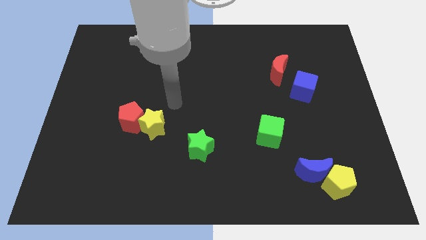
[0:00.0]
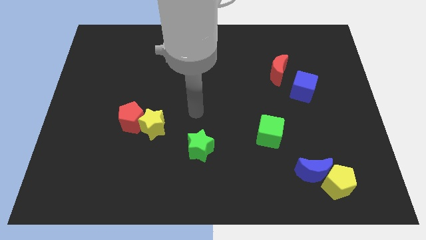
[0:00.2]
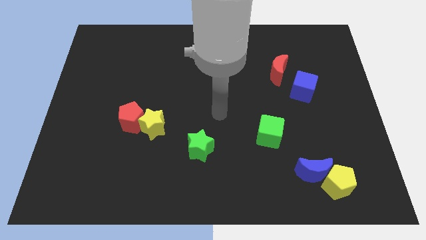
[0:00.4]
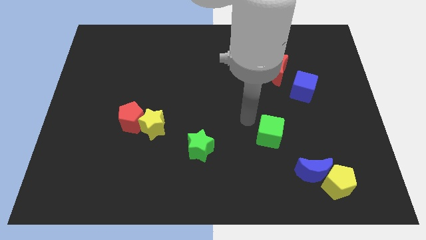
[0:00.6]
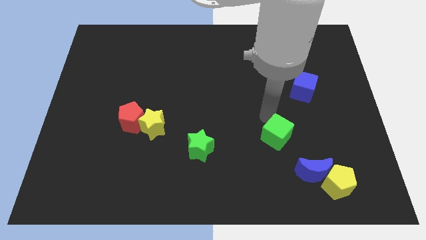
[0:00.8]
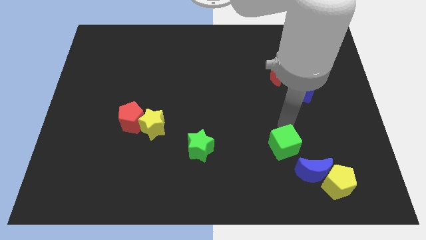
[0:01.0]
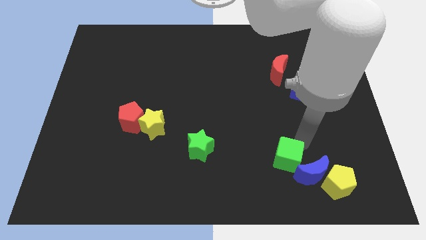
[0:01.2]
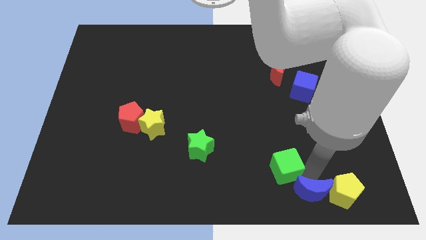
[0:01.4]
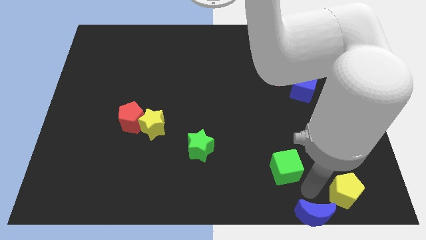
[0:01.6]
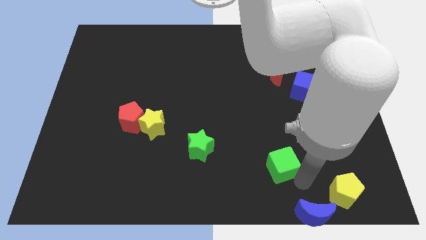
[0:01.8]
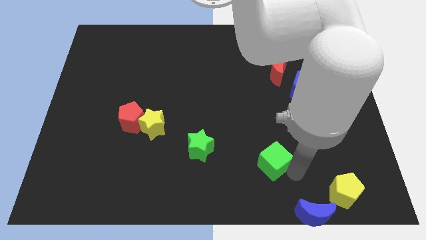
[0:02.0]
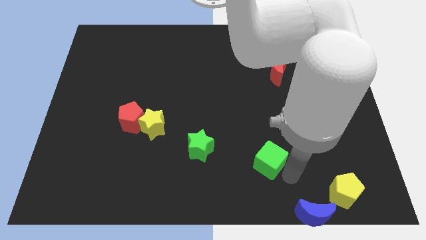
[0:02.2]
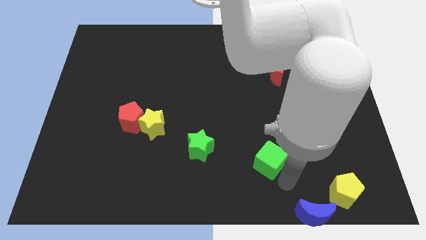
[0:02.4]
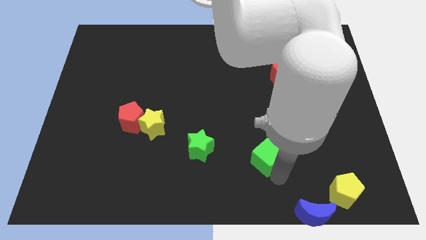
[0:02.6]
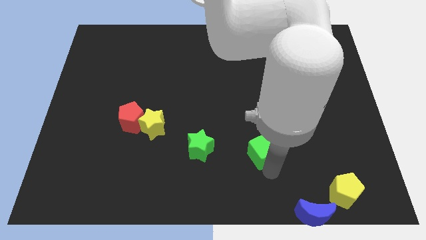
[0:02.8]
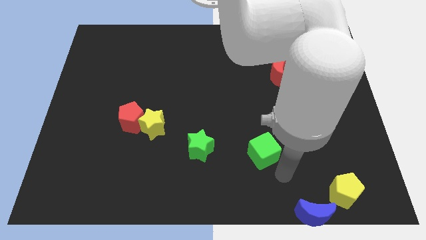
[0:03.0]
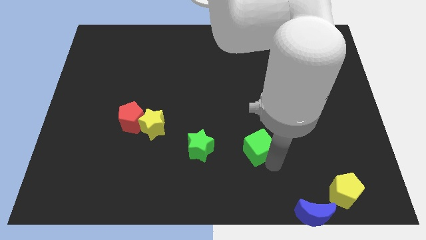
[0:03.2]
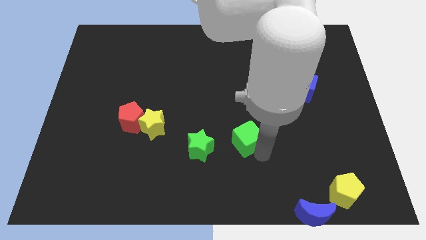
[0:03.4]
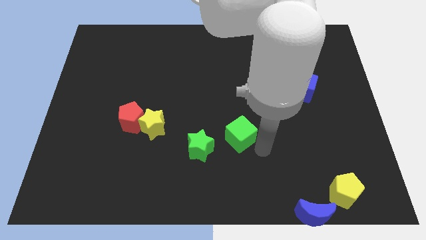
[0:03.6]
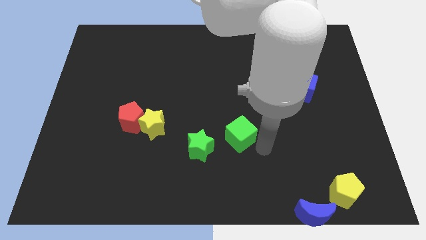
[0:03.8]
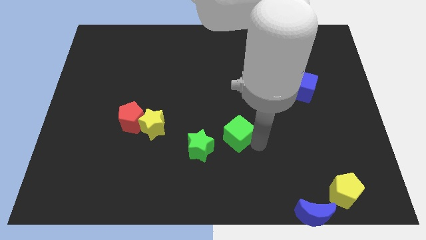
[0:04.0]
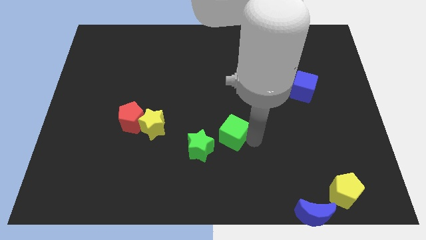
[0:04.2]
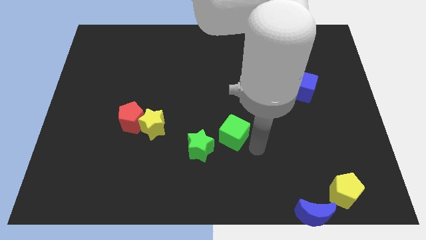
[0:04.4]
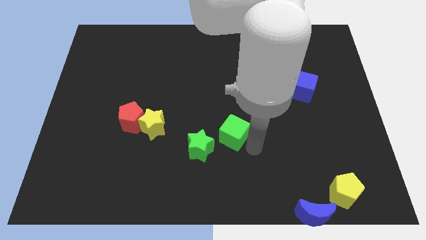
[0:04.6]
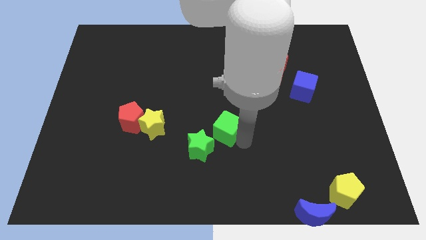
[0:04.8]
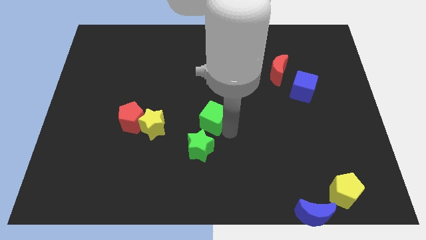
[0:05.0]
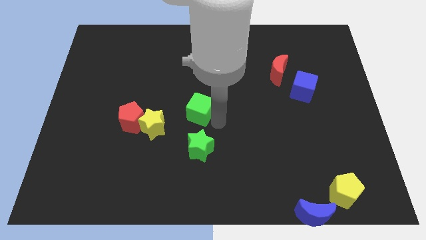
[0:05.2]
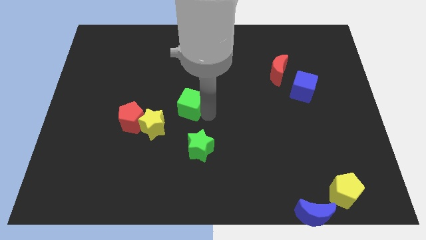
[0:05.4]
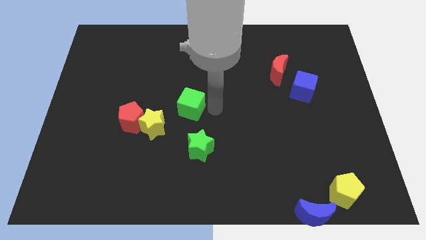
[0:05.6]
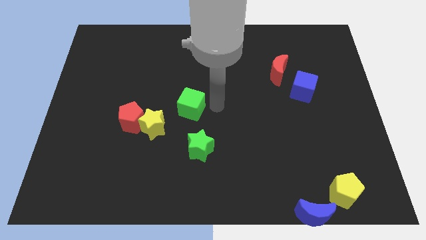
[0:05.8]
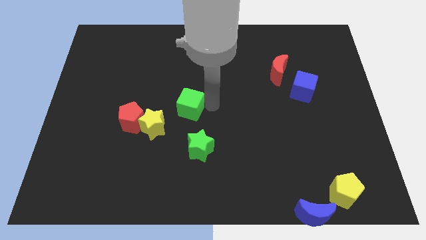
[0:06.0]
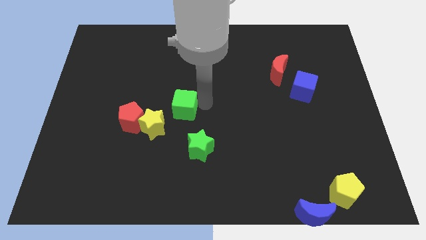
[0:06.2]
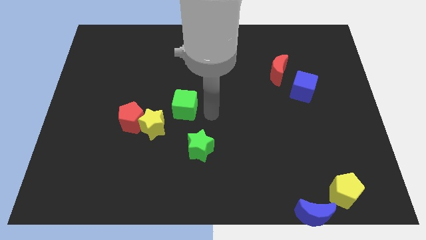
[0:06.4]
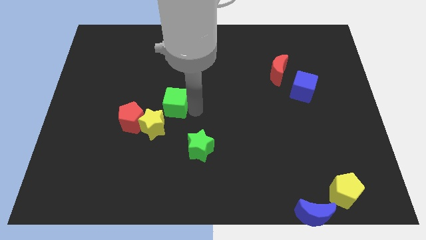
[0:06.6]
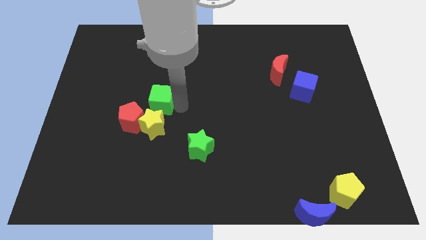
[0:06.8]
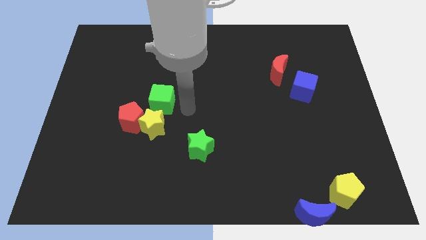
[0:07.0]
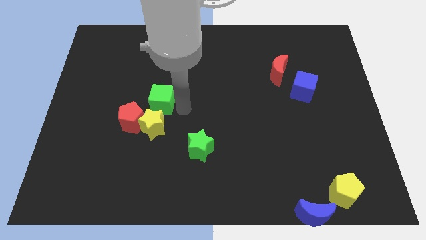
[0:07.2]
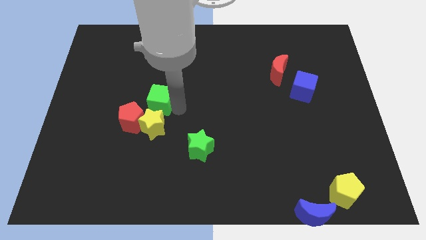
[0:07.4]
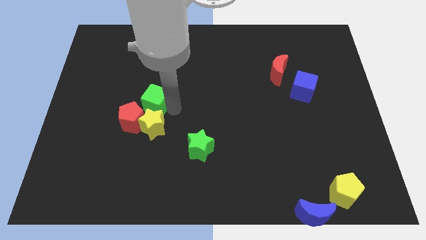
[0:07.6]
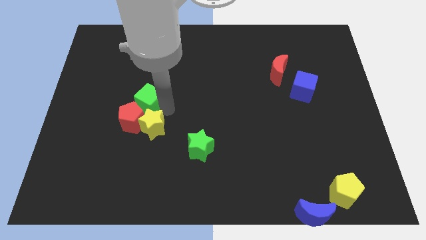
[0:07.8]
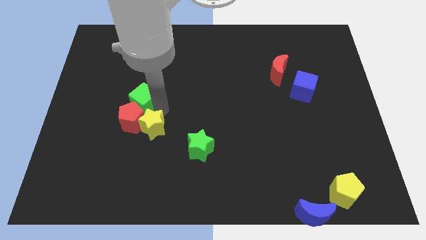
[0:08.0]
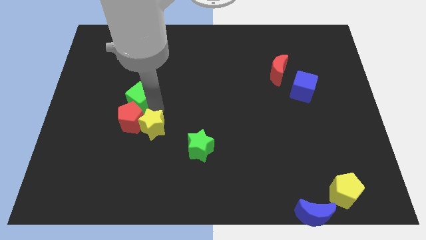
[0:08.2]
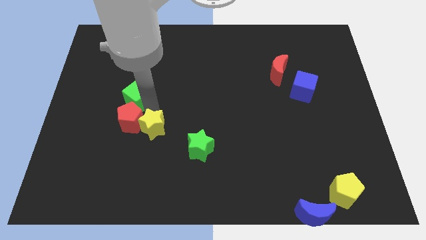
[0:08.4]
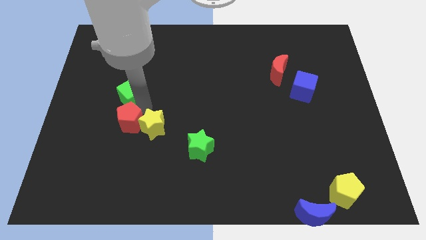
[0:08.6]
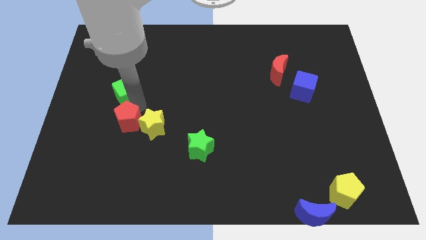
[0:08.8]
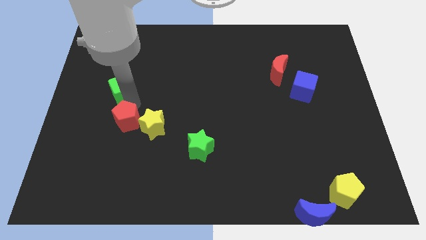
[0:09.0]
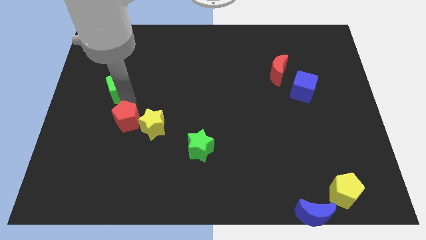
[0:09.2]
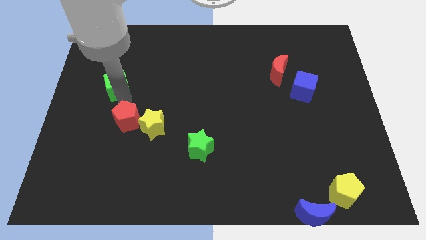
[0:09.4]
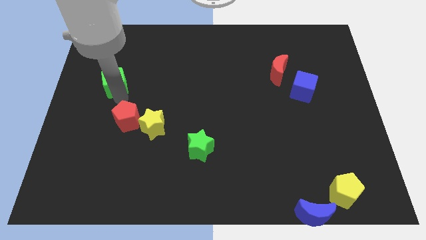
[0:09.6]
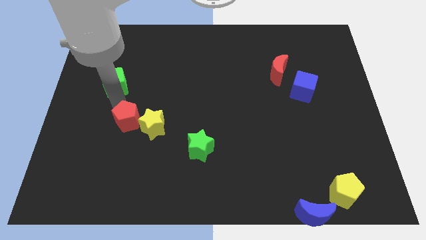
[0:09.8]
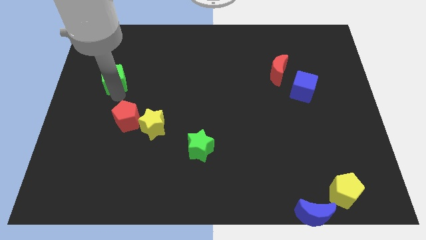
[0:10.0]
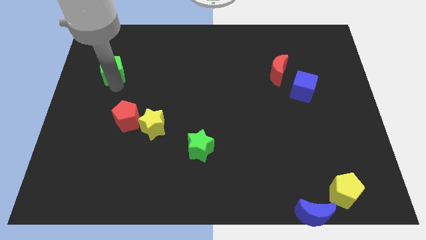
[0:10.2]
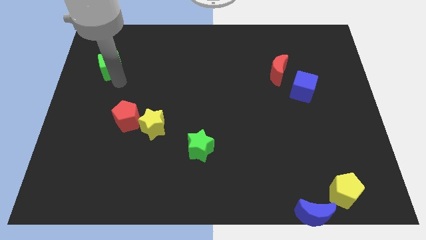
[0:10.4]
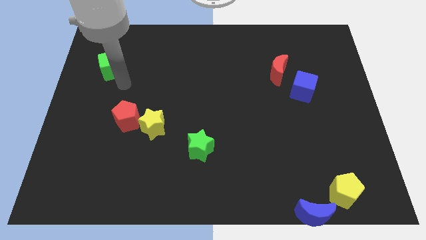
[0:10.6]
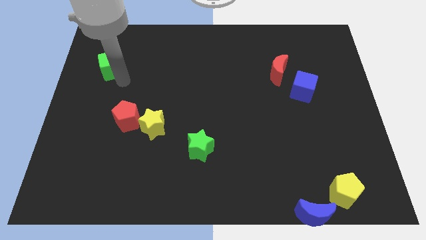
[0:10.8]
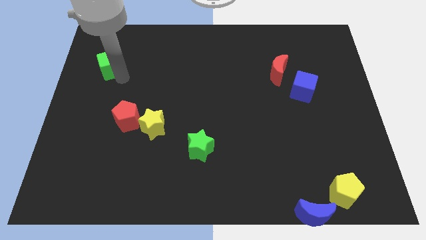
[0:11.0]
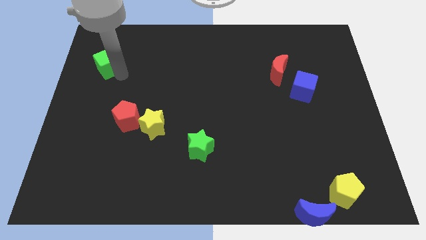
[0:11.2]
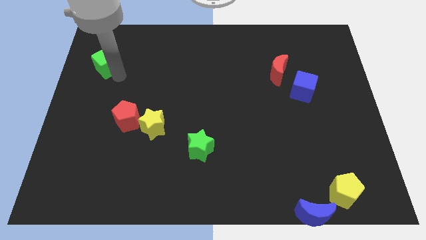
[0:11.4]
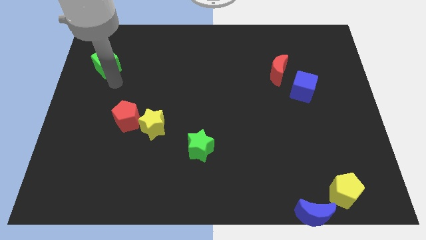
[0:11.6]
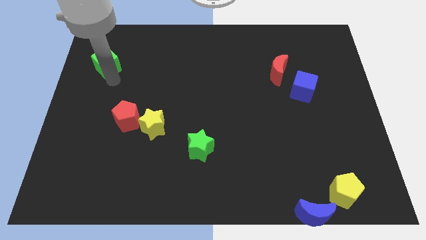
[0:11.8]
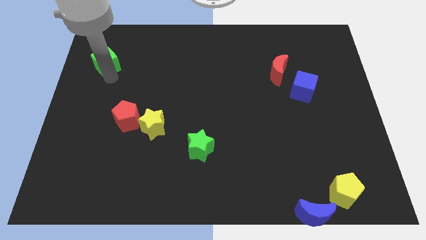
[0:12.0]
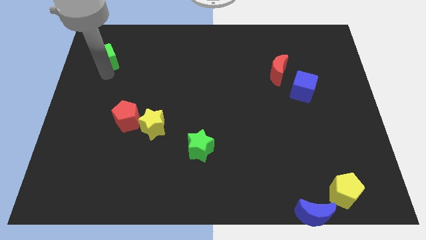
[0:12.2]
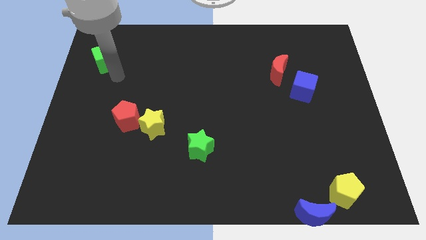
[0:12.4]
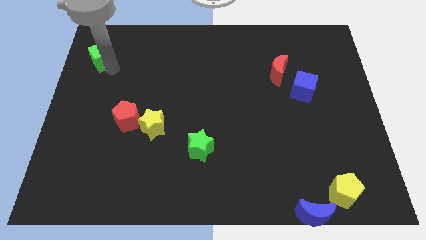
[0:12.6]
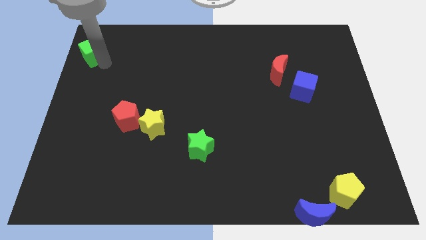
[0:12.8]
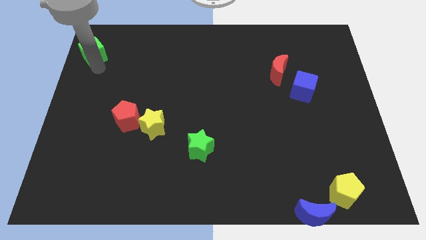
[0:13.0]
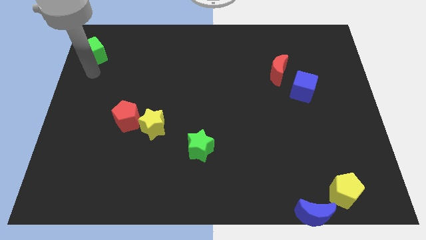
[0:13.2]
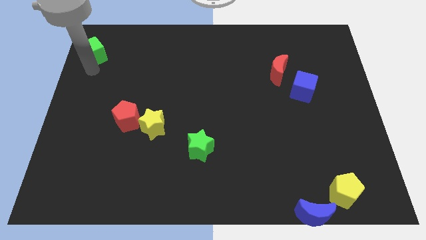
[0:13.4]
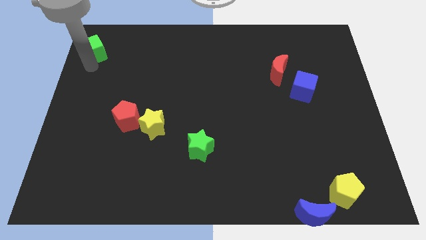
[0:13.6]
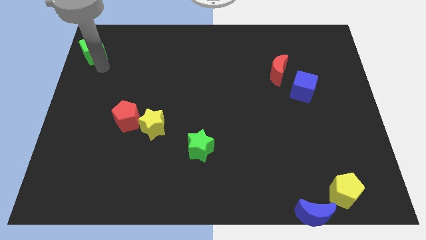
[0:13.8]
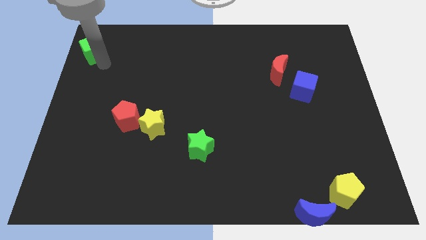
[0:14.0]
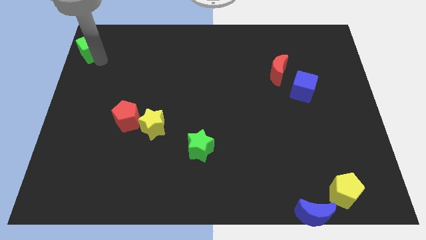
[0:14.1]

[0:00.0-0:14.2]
slide the green cube to the upper left corner

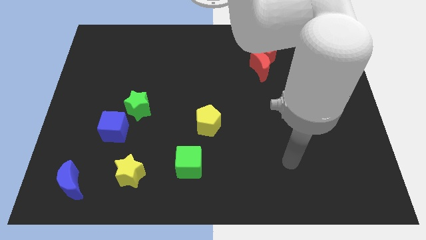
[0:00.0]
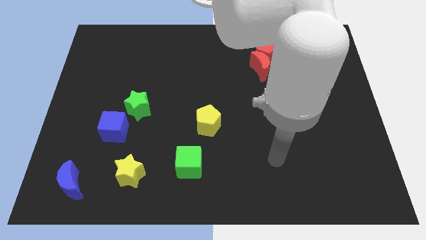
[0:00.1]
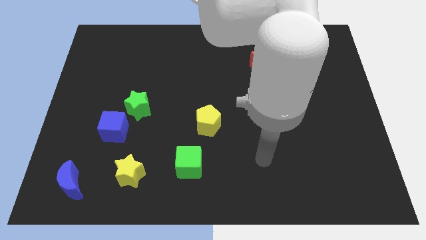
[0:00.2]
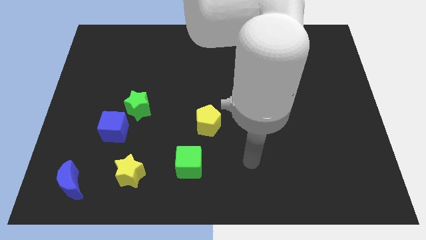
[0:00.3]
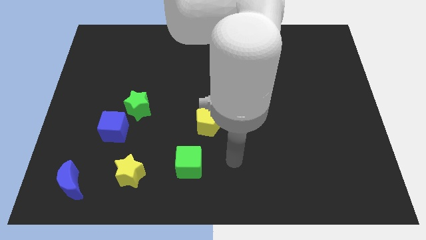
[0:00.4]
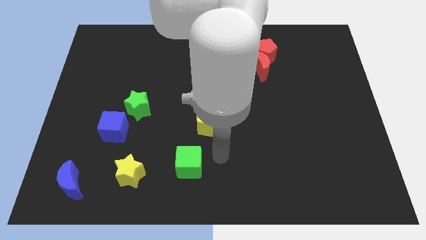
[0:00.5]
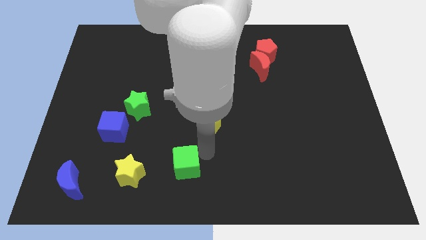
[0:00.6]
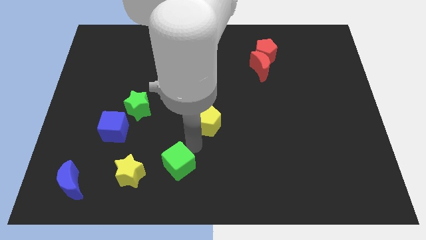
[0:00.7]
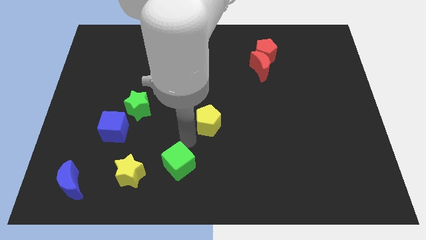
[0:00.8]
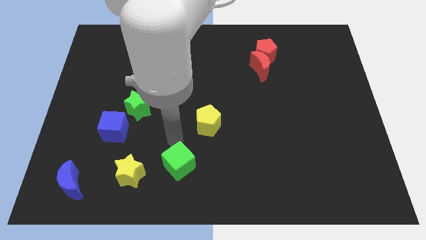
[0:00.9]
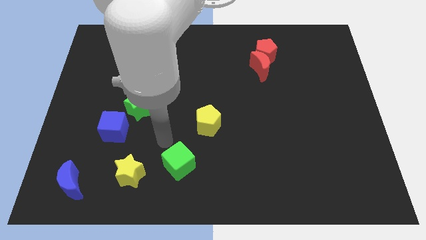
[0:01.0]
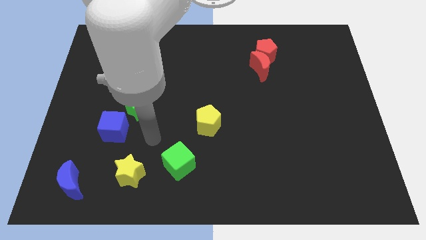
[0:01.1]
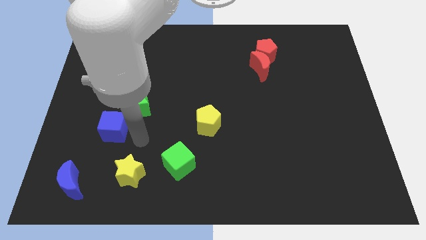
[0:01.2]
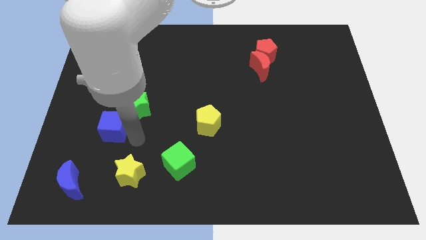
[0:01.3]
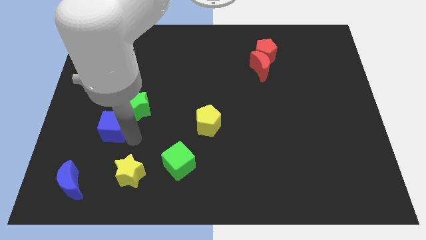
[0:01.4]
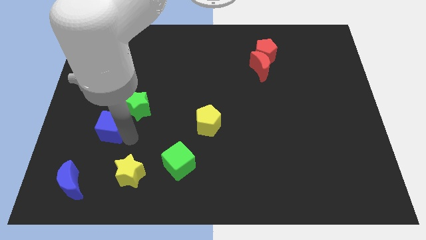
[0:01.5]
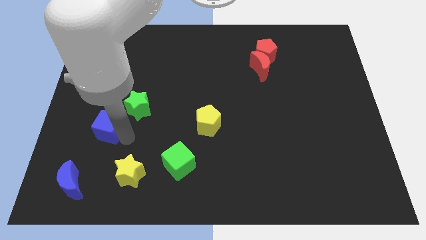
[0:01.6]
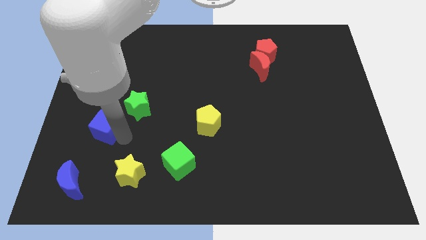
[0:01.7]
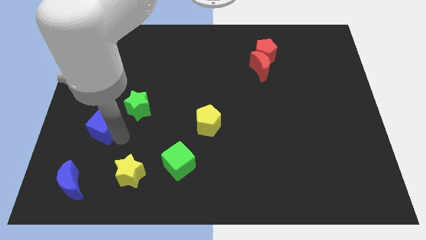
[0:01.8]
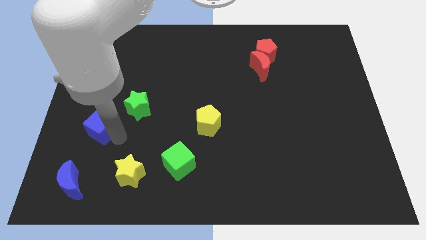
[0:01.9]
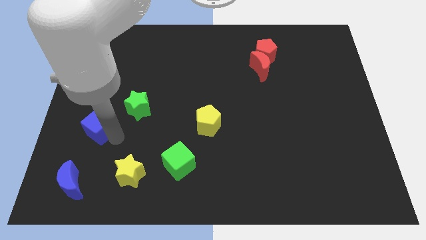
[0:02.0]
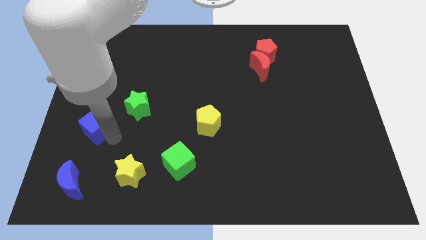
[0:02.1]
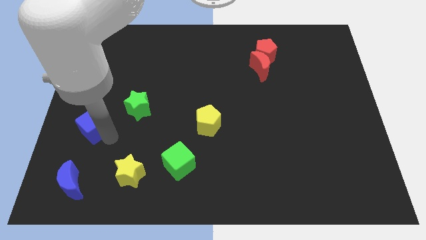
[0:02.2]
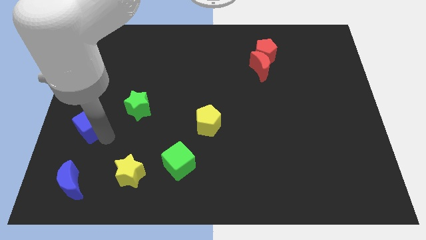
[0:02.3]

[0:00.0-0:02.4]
put the blue cube to the left side
